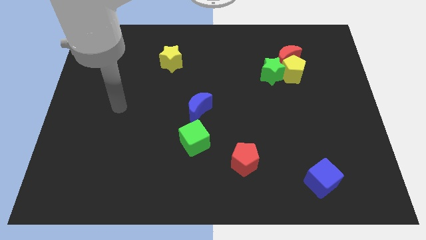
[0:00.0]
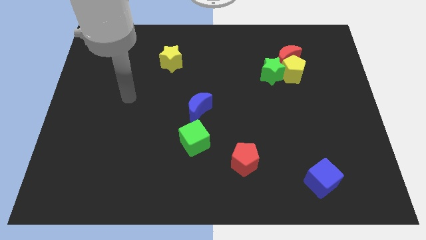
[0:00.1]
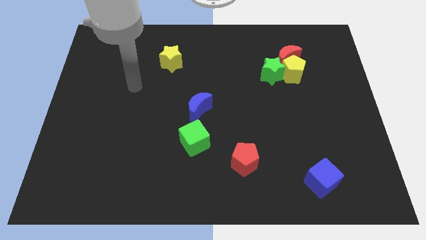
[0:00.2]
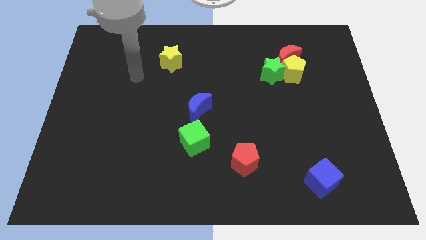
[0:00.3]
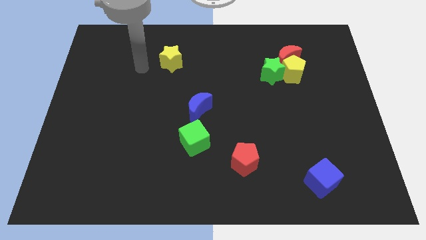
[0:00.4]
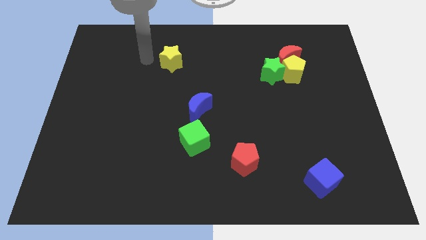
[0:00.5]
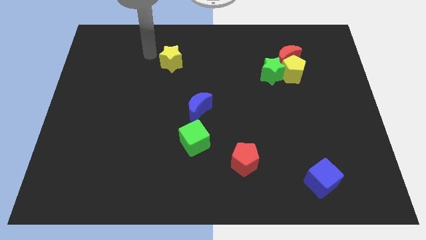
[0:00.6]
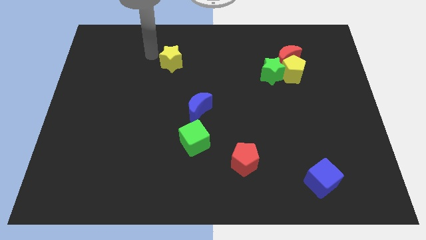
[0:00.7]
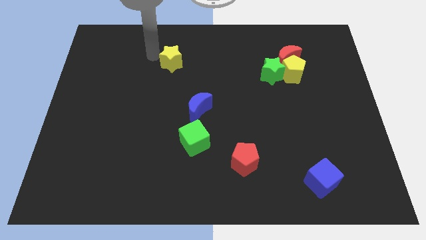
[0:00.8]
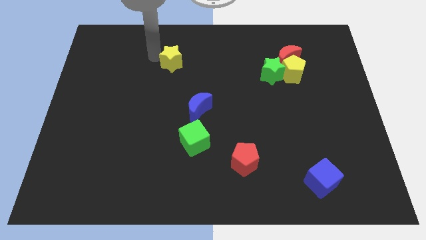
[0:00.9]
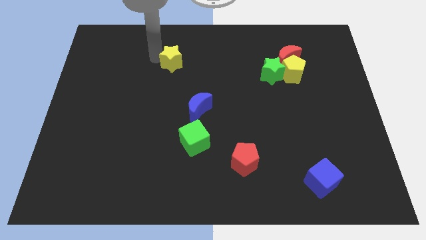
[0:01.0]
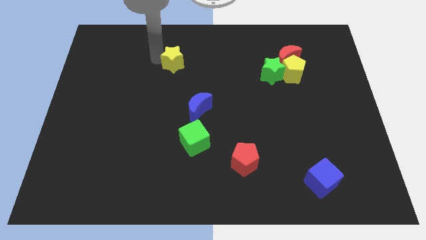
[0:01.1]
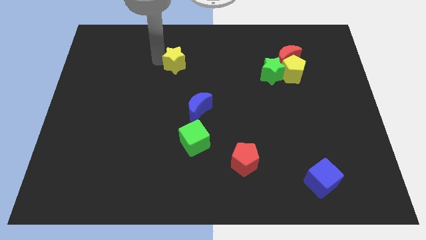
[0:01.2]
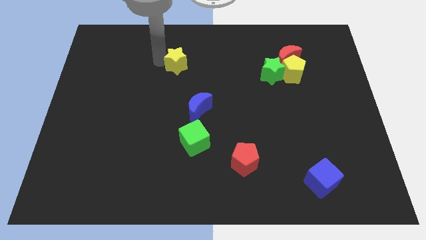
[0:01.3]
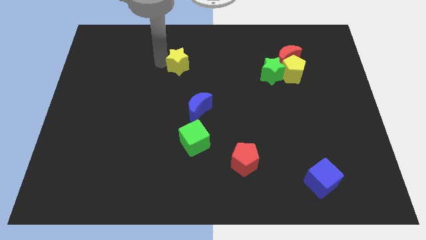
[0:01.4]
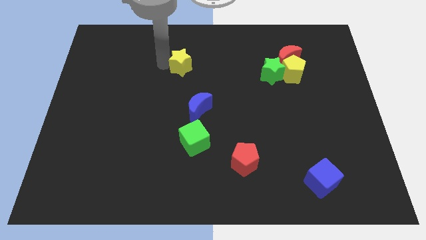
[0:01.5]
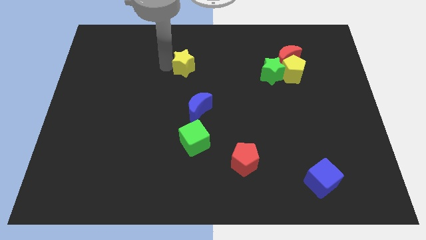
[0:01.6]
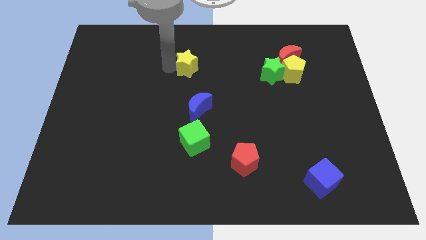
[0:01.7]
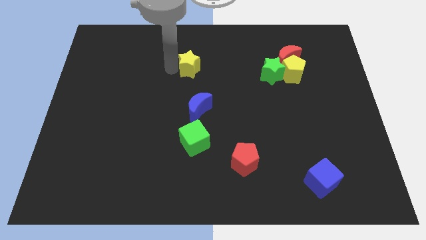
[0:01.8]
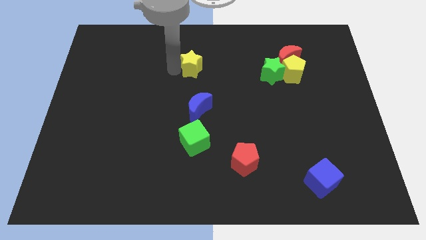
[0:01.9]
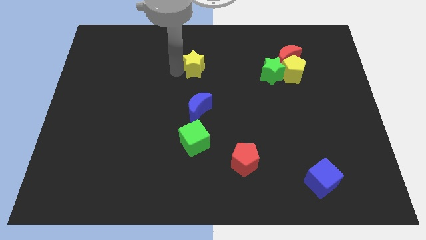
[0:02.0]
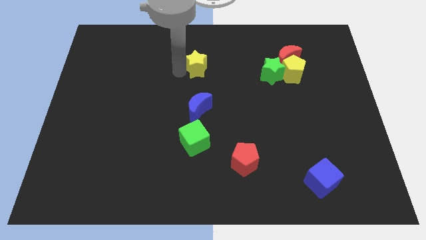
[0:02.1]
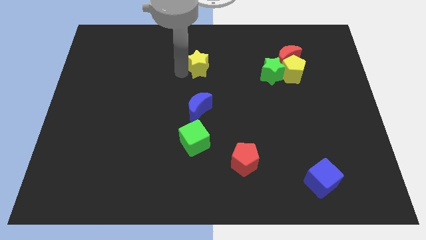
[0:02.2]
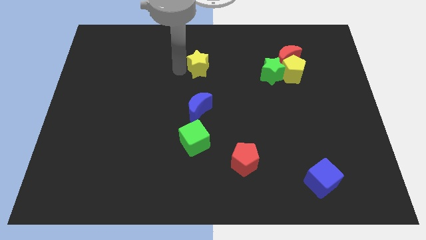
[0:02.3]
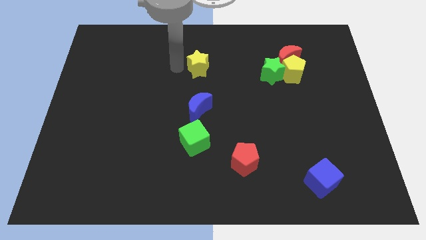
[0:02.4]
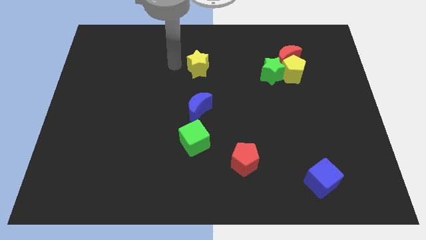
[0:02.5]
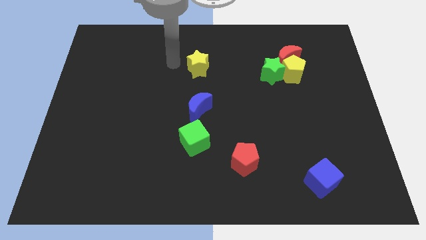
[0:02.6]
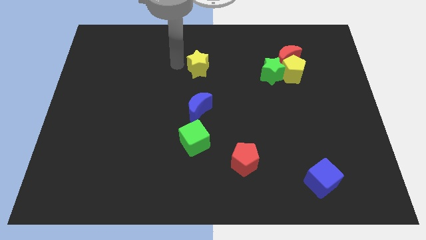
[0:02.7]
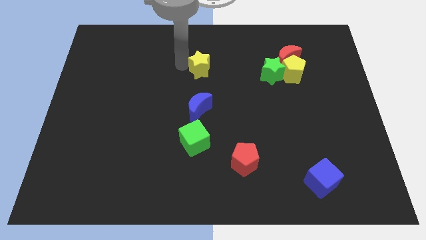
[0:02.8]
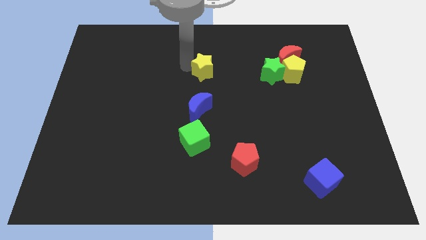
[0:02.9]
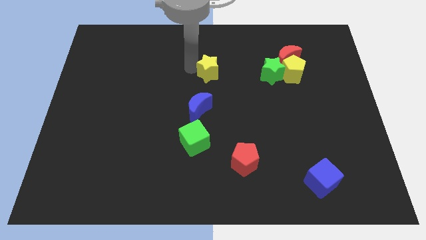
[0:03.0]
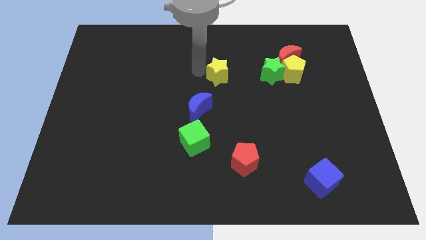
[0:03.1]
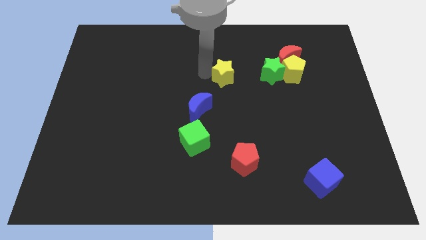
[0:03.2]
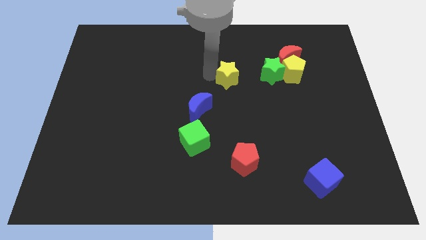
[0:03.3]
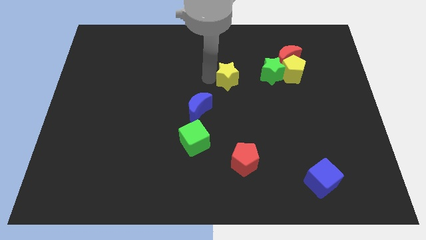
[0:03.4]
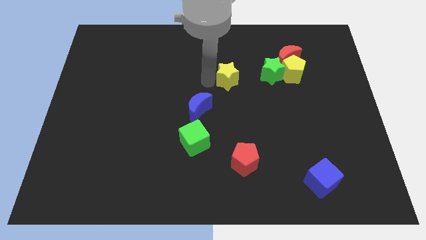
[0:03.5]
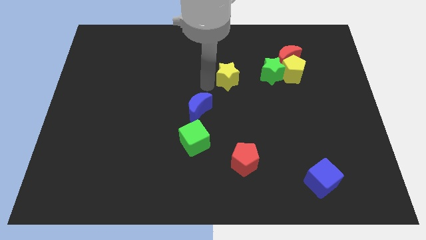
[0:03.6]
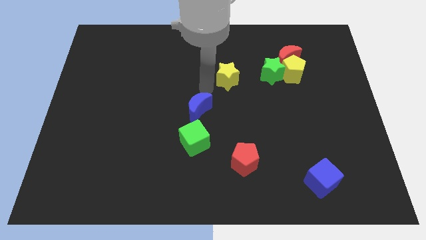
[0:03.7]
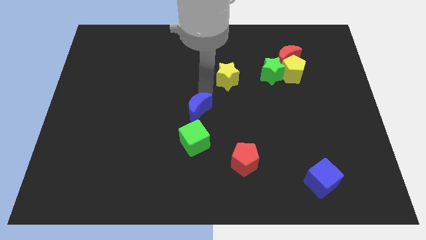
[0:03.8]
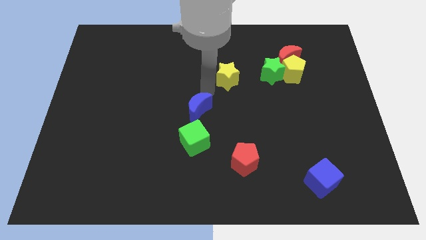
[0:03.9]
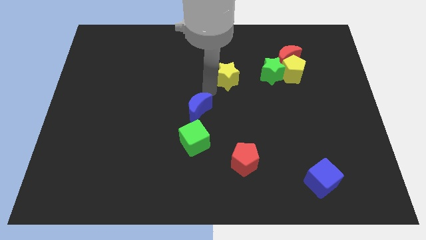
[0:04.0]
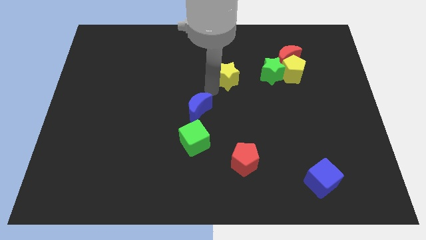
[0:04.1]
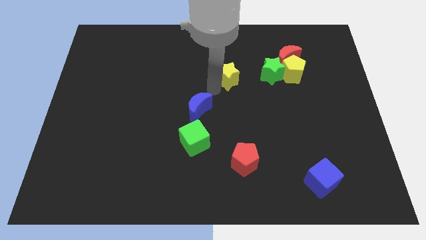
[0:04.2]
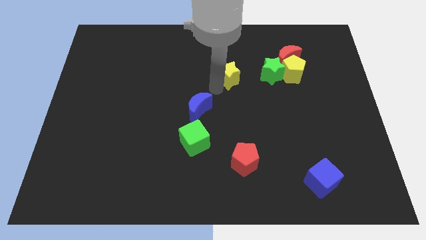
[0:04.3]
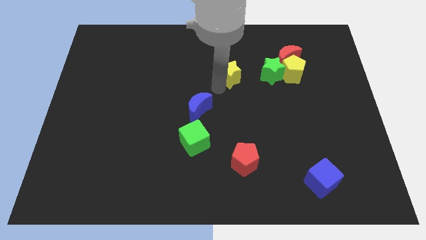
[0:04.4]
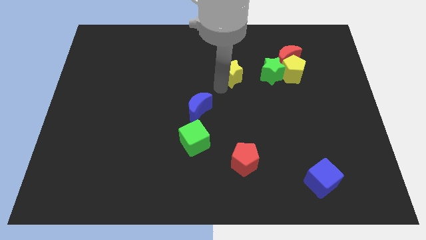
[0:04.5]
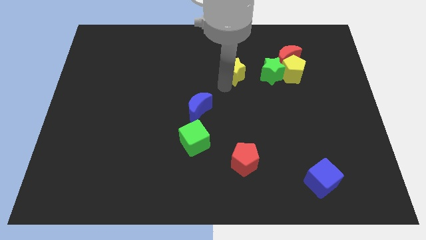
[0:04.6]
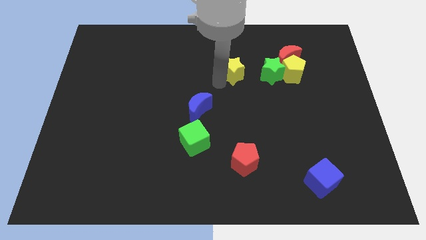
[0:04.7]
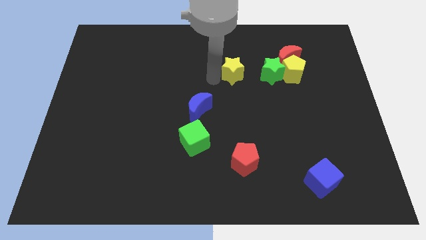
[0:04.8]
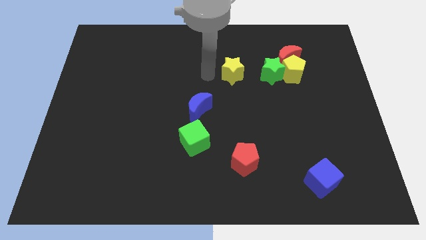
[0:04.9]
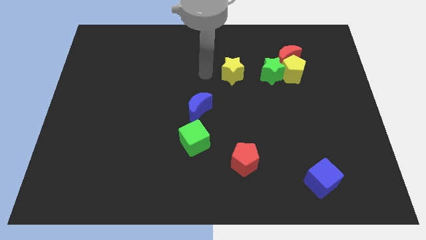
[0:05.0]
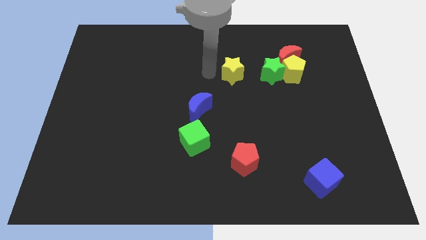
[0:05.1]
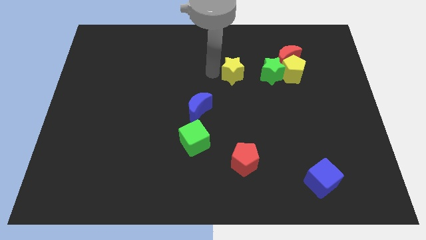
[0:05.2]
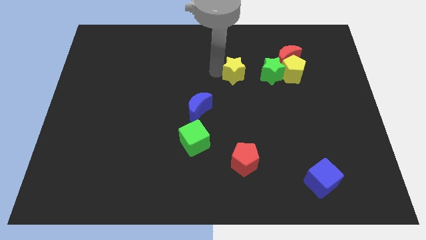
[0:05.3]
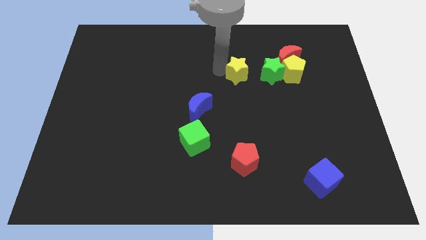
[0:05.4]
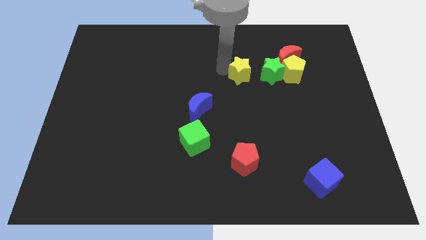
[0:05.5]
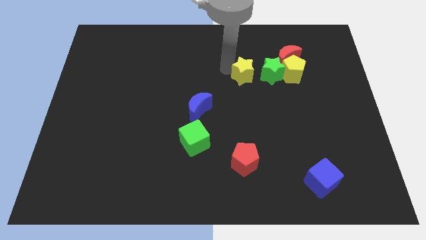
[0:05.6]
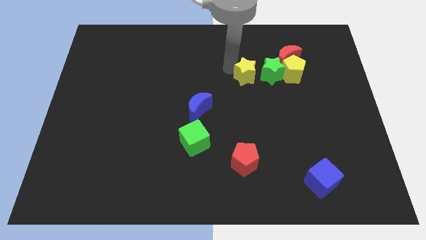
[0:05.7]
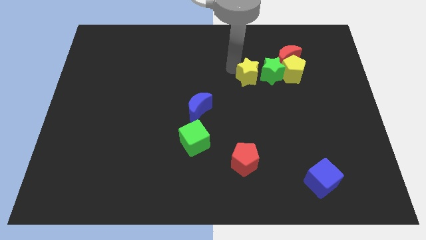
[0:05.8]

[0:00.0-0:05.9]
put the yellow star to the green star

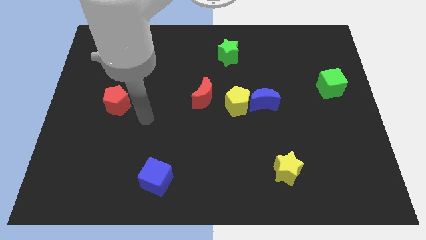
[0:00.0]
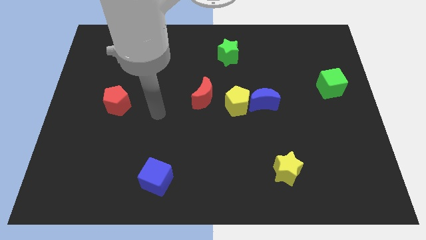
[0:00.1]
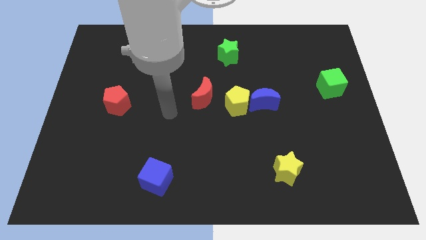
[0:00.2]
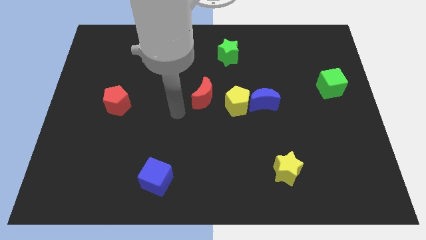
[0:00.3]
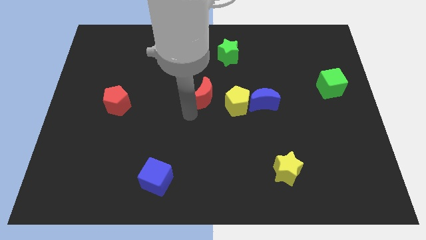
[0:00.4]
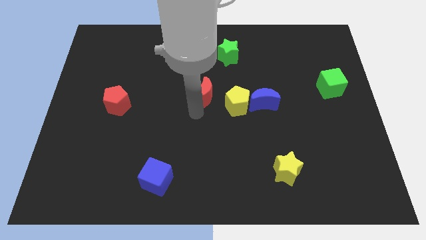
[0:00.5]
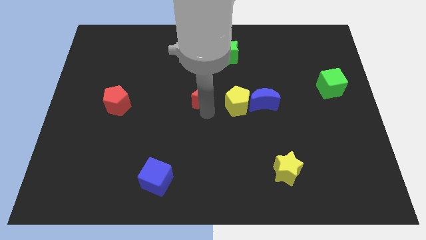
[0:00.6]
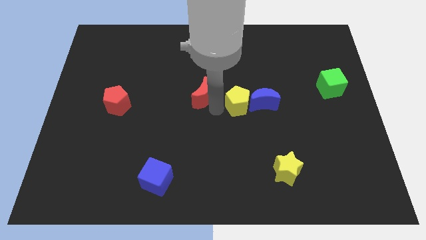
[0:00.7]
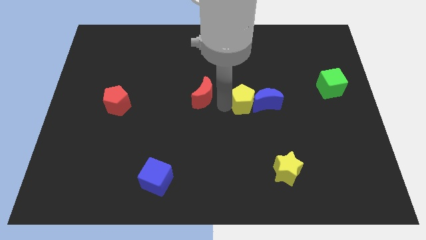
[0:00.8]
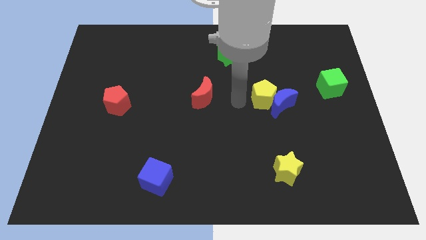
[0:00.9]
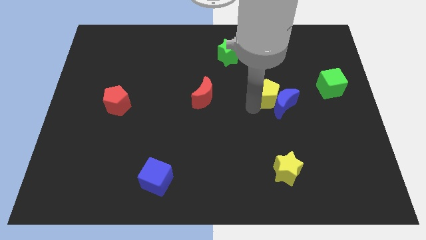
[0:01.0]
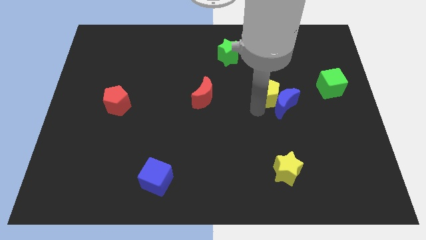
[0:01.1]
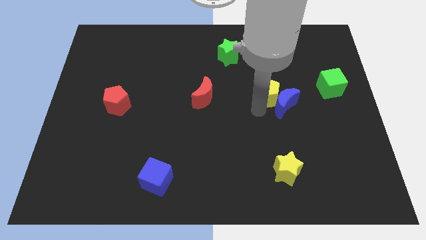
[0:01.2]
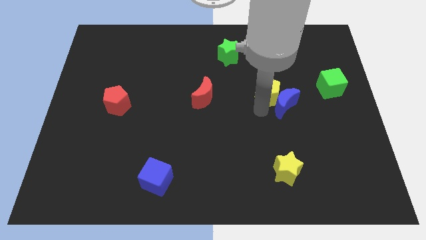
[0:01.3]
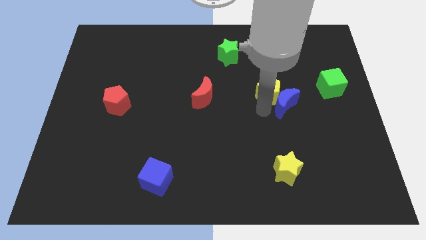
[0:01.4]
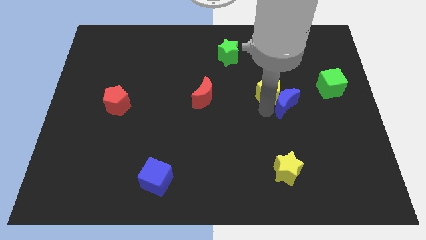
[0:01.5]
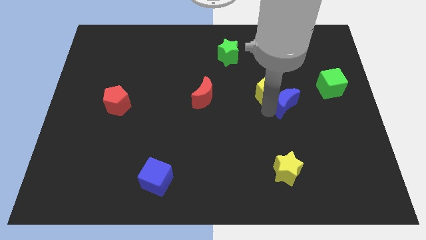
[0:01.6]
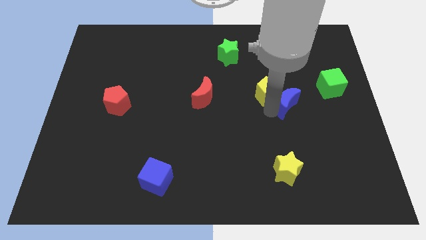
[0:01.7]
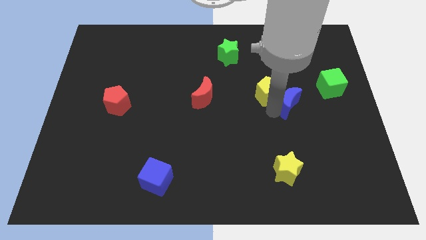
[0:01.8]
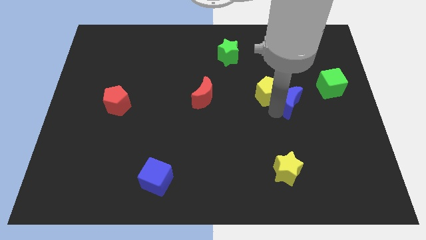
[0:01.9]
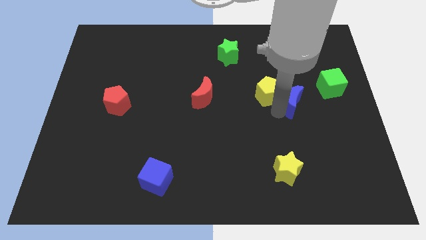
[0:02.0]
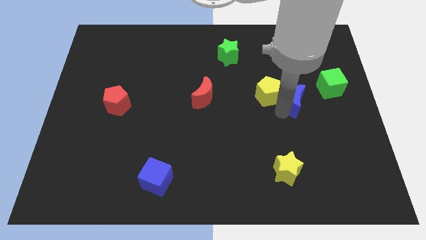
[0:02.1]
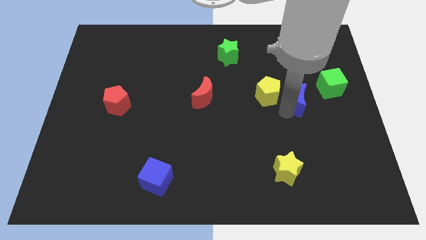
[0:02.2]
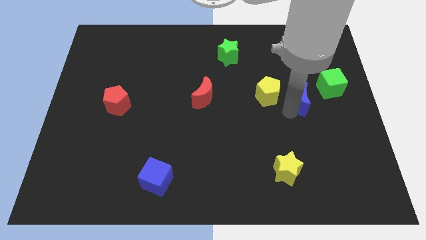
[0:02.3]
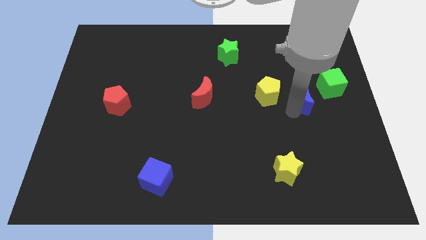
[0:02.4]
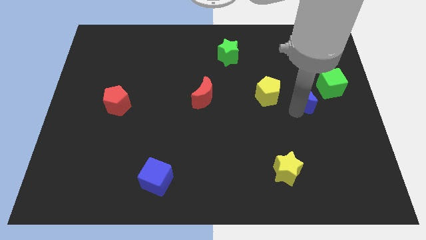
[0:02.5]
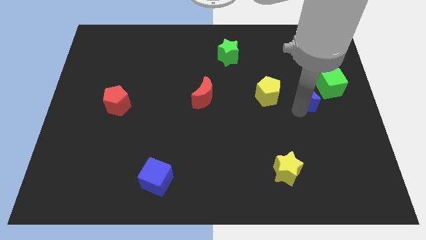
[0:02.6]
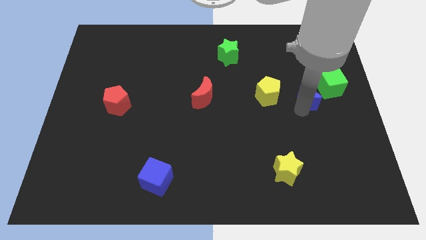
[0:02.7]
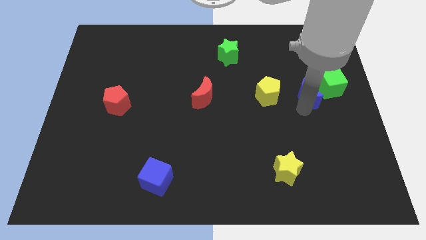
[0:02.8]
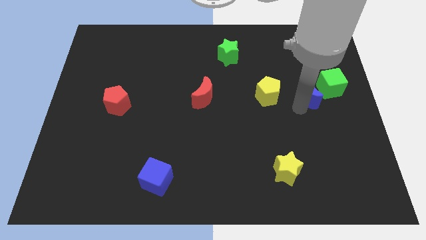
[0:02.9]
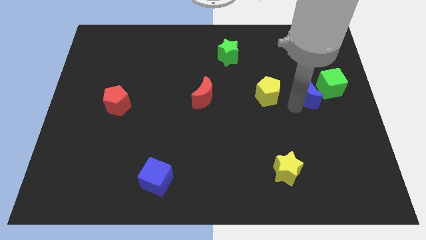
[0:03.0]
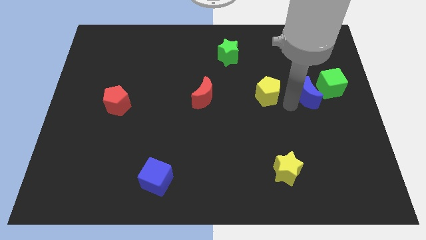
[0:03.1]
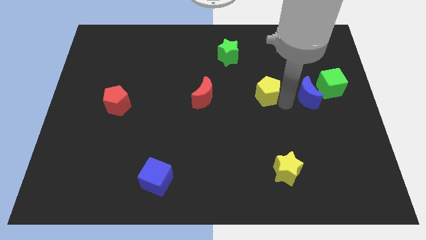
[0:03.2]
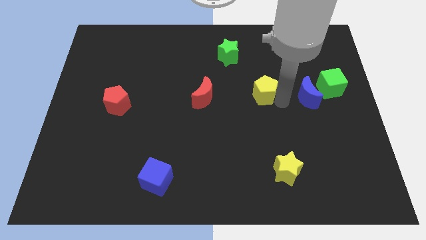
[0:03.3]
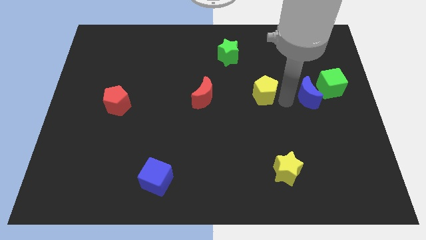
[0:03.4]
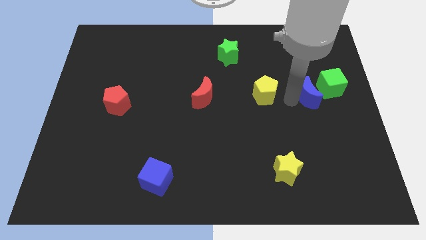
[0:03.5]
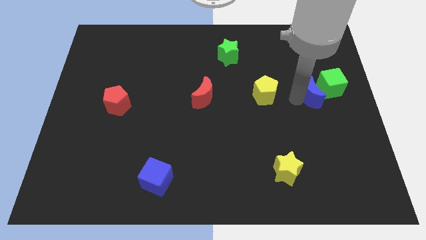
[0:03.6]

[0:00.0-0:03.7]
slide the blue moon to the green cube
